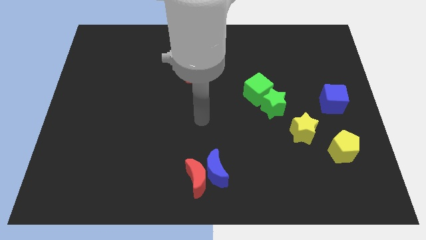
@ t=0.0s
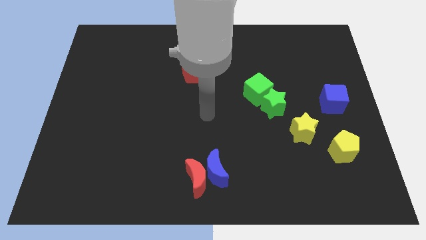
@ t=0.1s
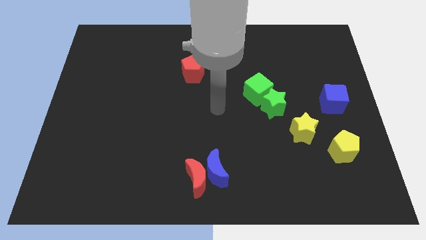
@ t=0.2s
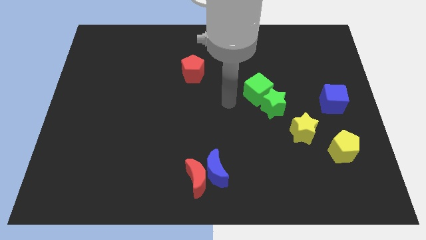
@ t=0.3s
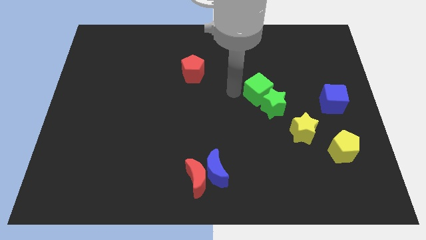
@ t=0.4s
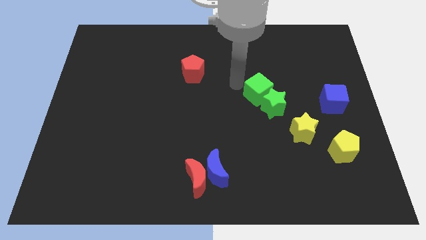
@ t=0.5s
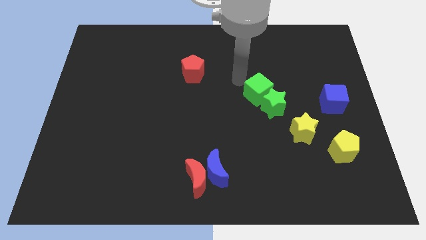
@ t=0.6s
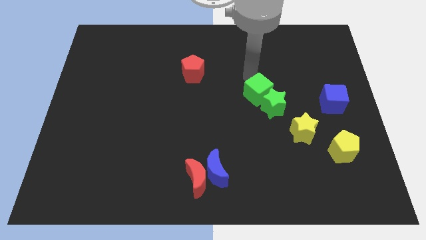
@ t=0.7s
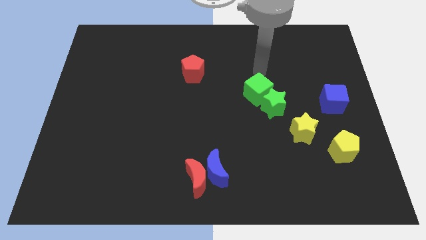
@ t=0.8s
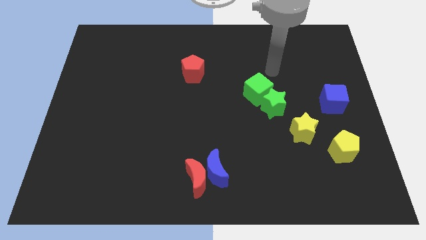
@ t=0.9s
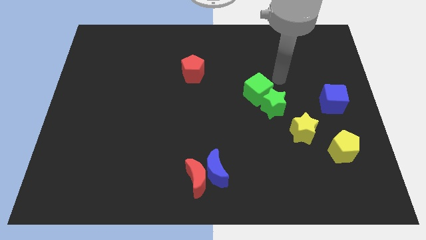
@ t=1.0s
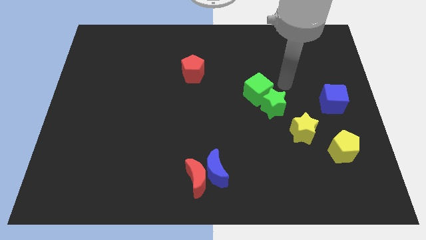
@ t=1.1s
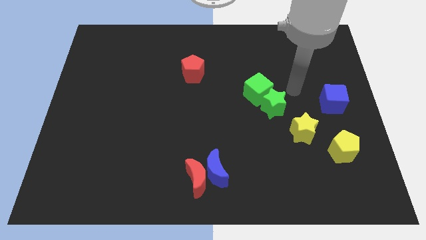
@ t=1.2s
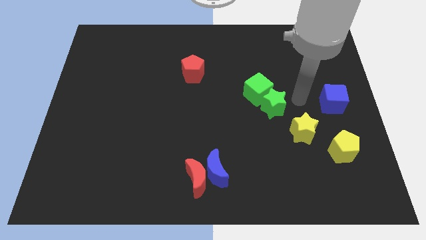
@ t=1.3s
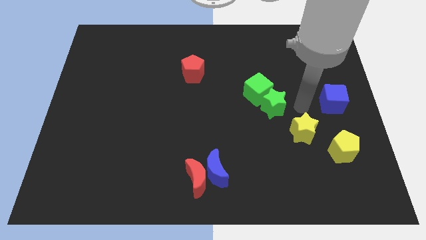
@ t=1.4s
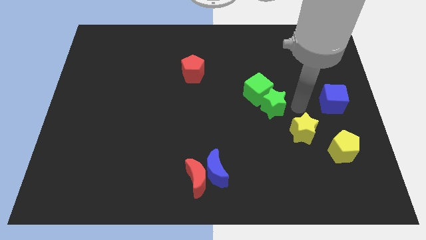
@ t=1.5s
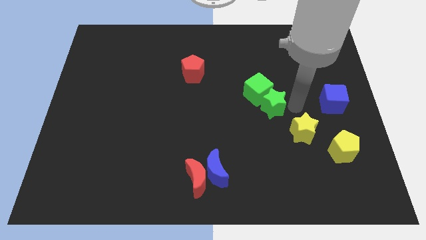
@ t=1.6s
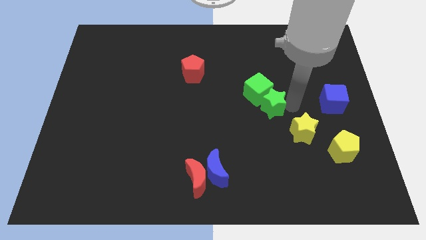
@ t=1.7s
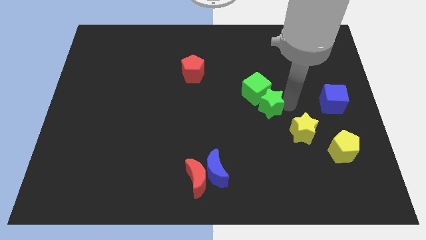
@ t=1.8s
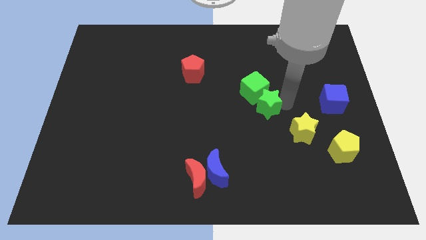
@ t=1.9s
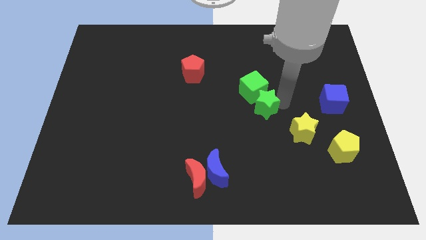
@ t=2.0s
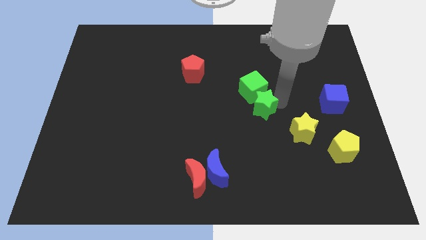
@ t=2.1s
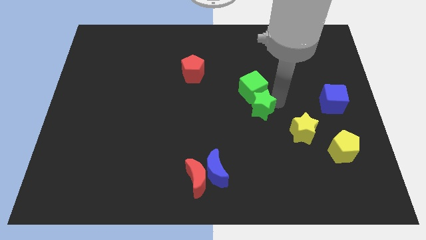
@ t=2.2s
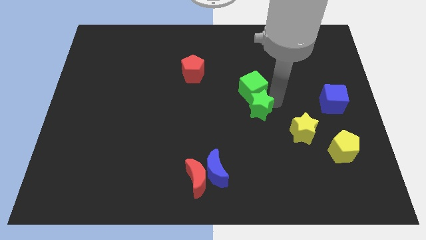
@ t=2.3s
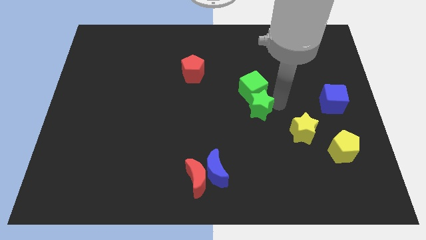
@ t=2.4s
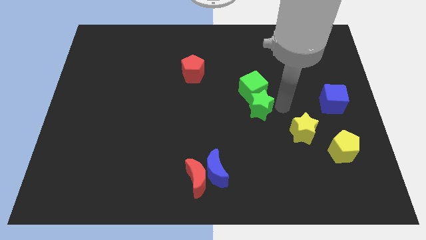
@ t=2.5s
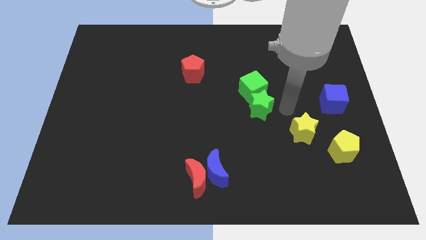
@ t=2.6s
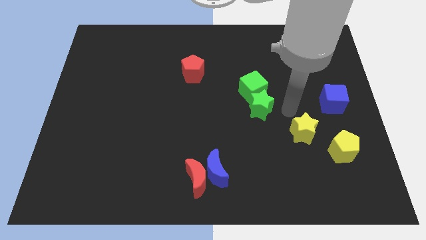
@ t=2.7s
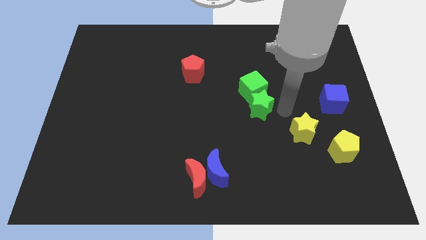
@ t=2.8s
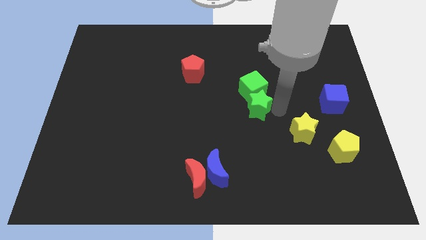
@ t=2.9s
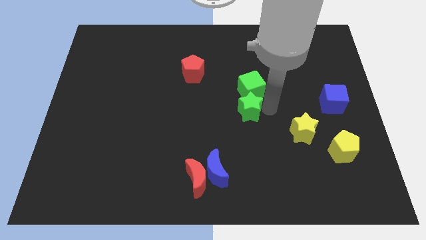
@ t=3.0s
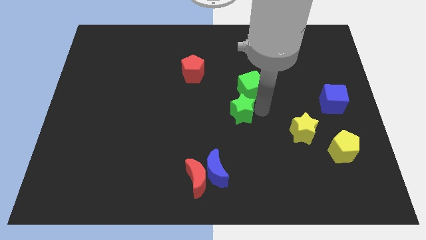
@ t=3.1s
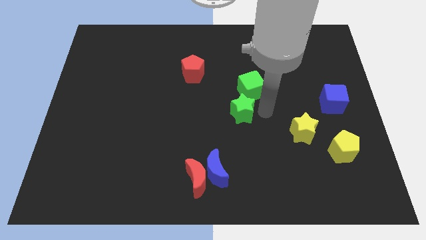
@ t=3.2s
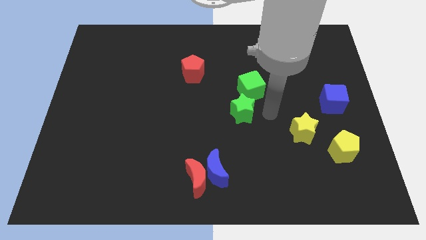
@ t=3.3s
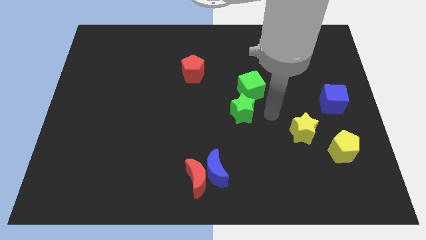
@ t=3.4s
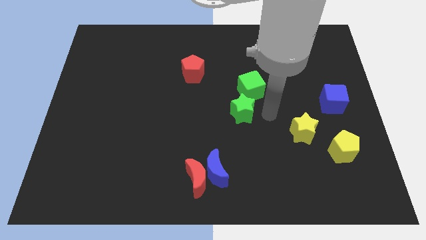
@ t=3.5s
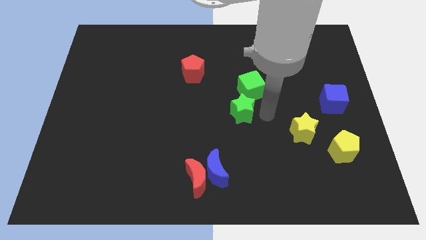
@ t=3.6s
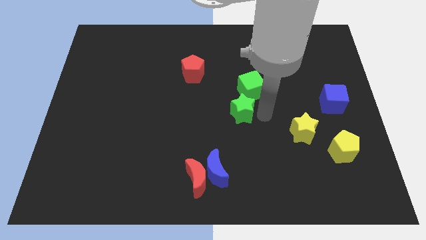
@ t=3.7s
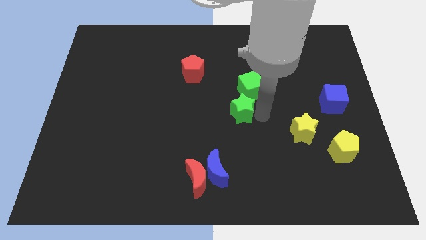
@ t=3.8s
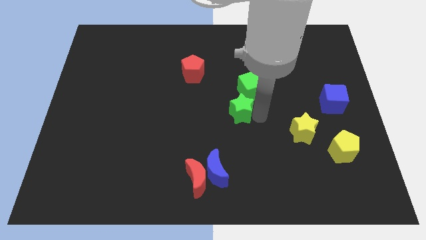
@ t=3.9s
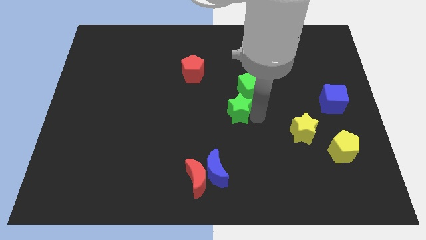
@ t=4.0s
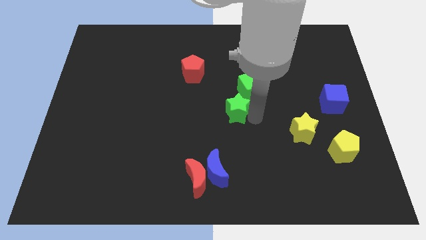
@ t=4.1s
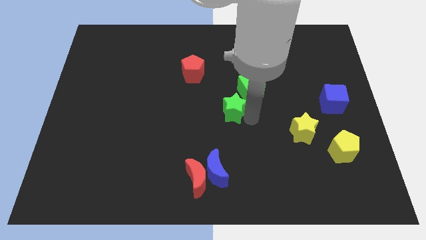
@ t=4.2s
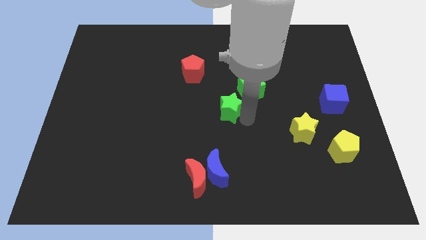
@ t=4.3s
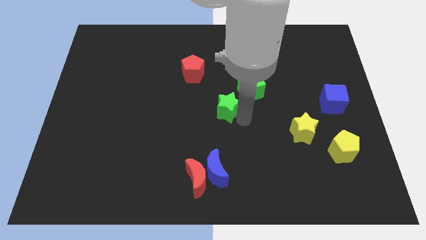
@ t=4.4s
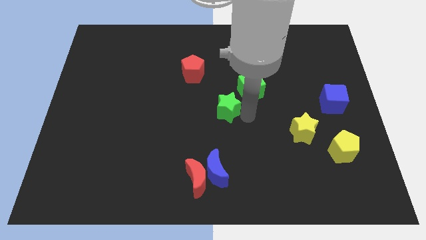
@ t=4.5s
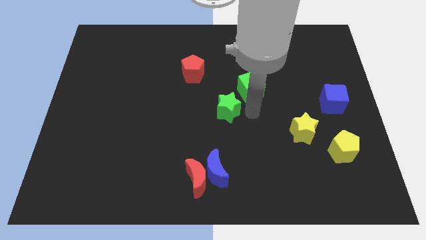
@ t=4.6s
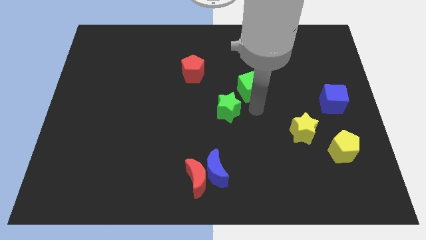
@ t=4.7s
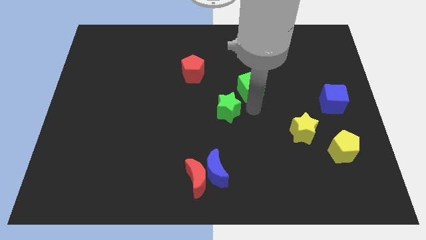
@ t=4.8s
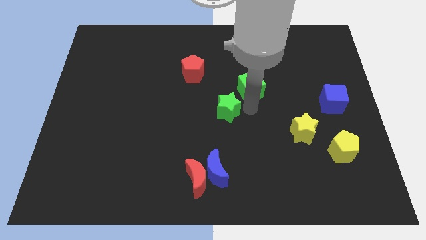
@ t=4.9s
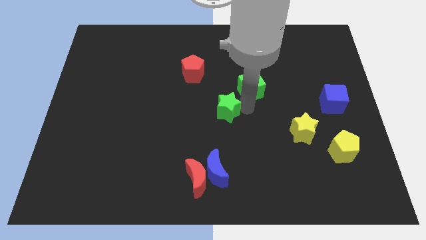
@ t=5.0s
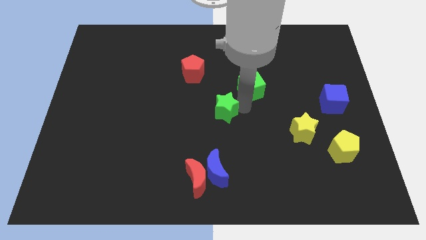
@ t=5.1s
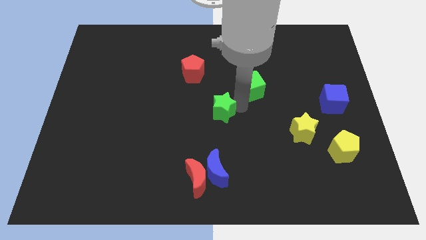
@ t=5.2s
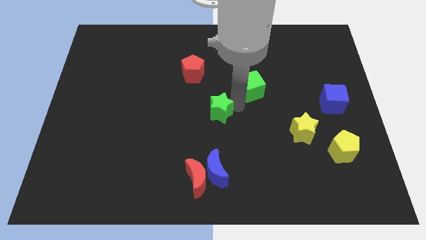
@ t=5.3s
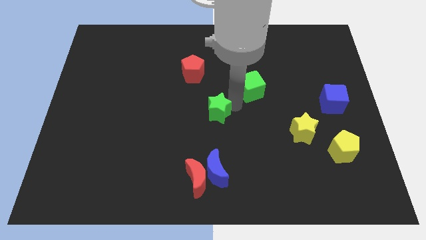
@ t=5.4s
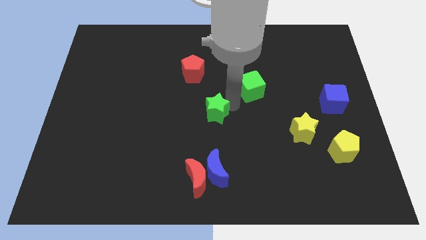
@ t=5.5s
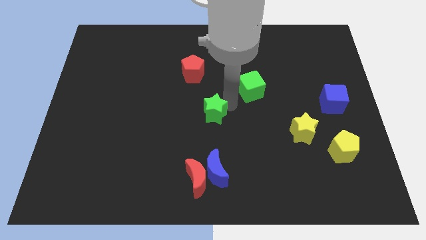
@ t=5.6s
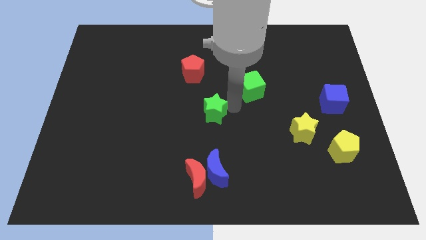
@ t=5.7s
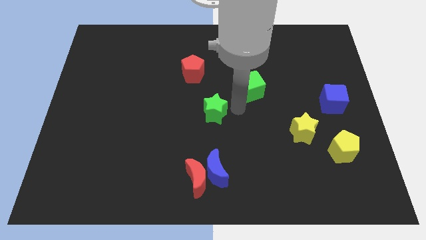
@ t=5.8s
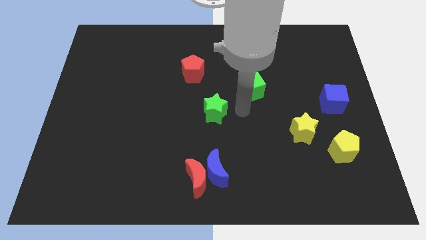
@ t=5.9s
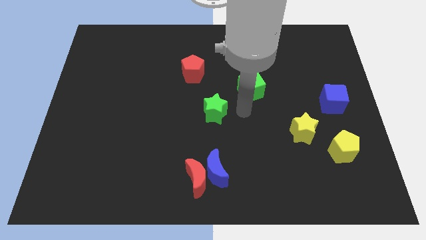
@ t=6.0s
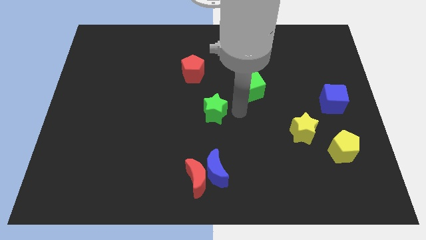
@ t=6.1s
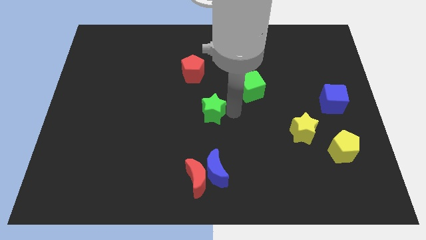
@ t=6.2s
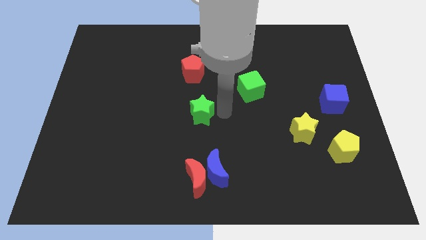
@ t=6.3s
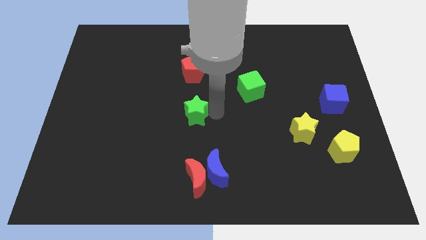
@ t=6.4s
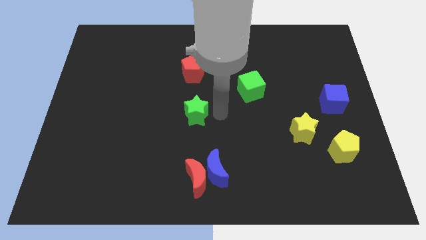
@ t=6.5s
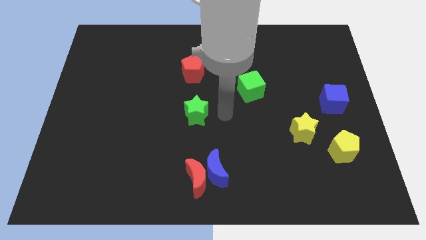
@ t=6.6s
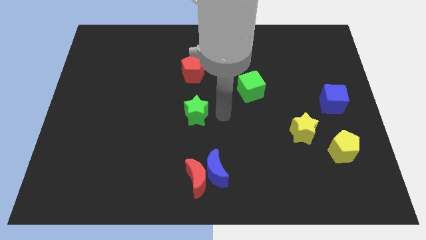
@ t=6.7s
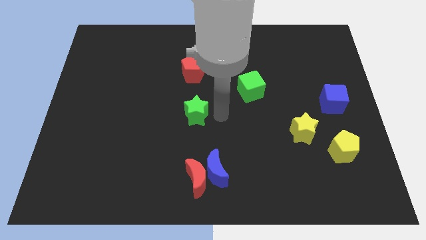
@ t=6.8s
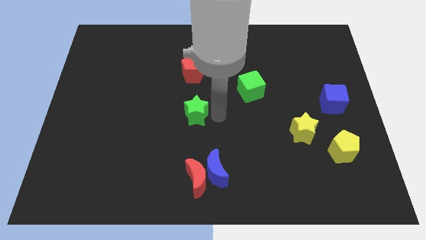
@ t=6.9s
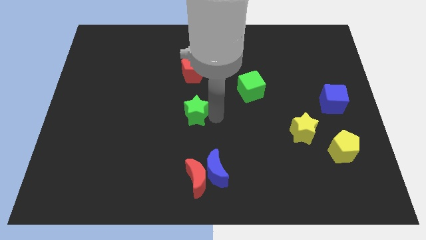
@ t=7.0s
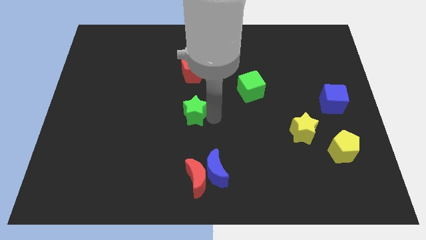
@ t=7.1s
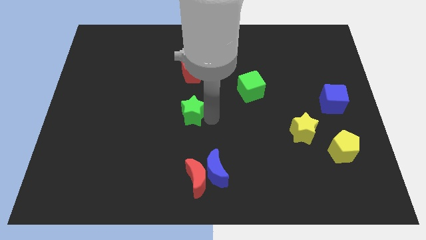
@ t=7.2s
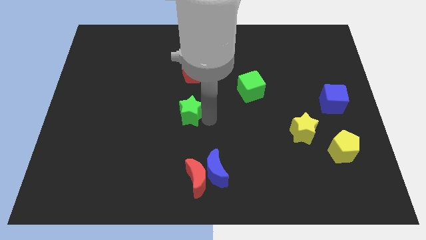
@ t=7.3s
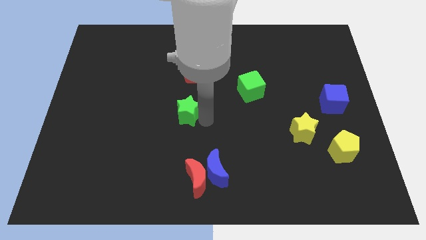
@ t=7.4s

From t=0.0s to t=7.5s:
push the green star to the left

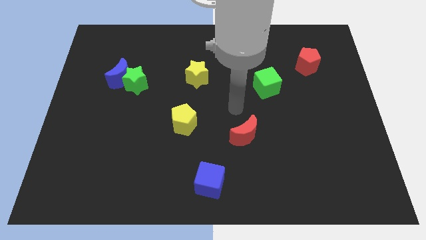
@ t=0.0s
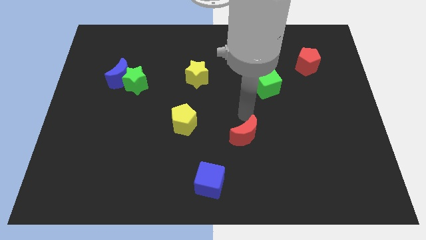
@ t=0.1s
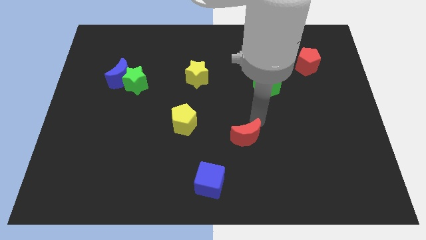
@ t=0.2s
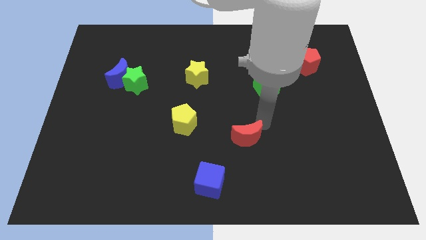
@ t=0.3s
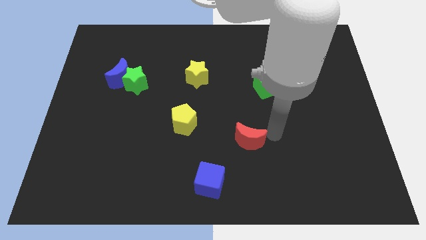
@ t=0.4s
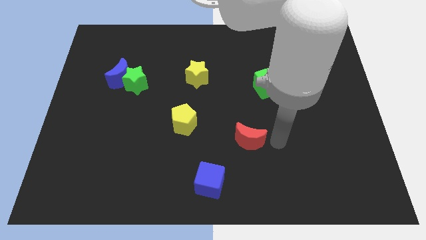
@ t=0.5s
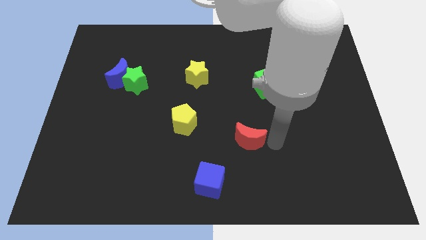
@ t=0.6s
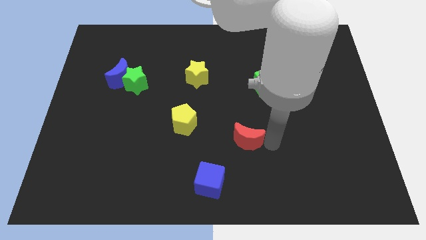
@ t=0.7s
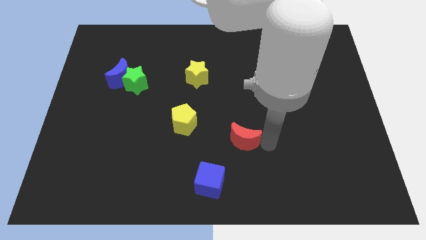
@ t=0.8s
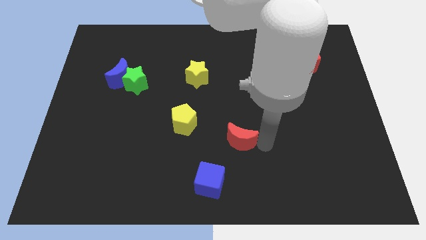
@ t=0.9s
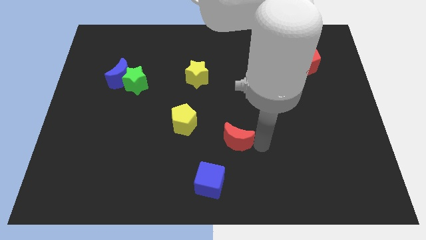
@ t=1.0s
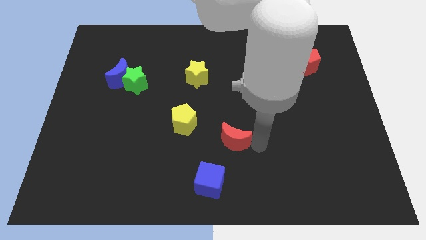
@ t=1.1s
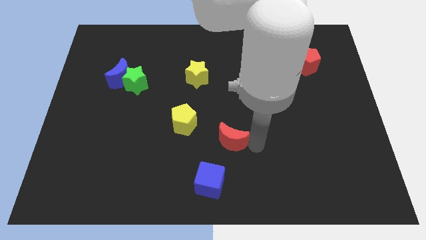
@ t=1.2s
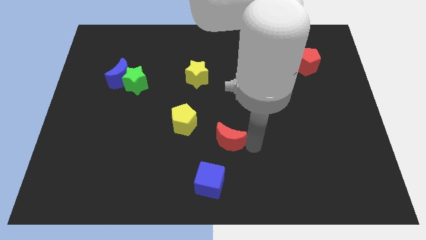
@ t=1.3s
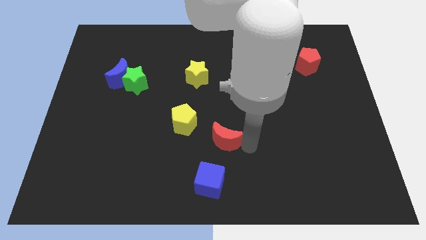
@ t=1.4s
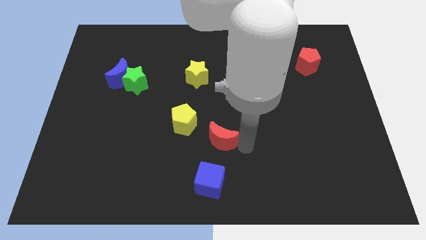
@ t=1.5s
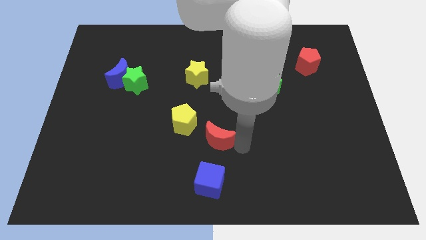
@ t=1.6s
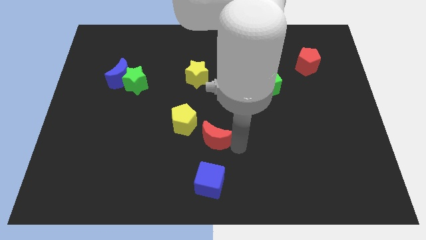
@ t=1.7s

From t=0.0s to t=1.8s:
move the red moon a little to the left
